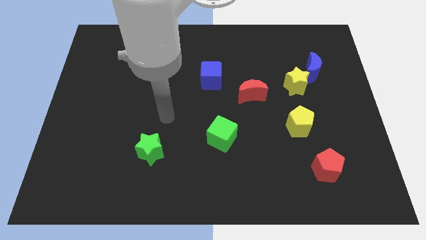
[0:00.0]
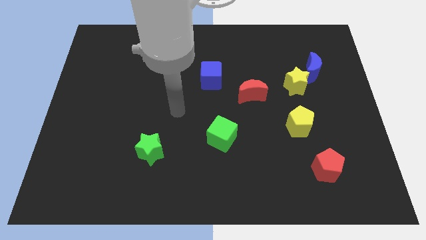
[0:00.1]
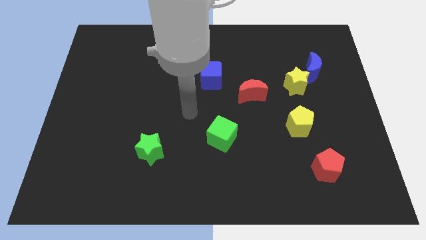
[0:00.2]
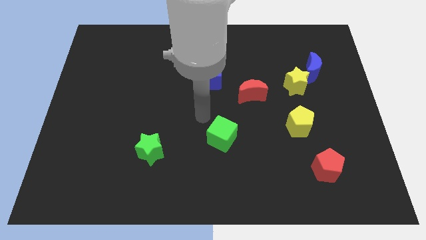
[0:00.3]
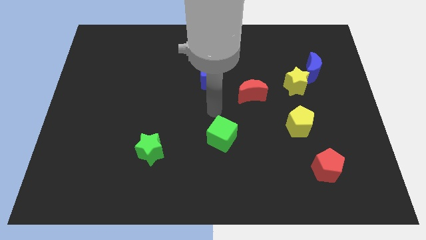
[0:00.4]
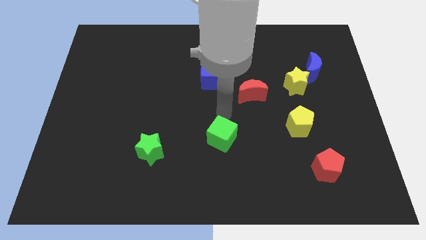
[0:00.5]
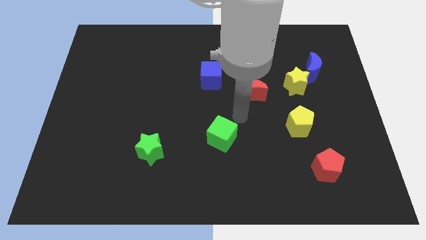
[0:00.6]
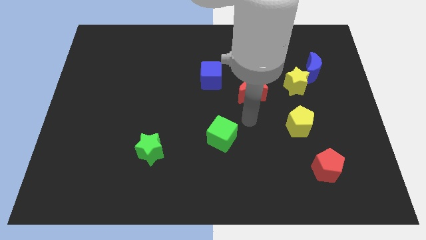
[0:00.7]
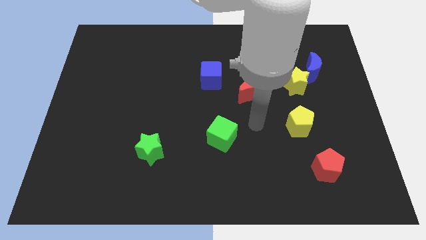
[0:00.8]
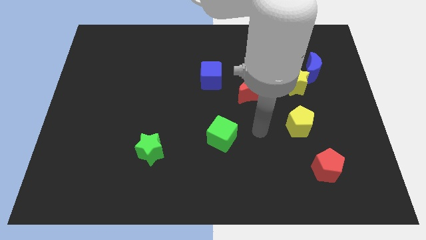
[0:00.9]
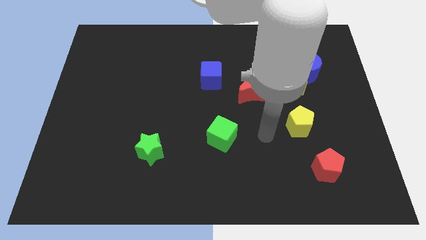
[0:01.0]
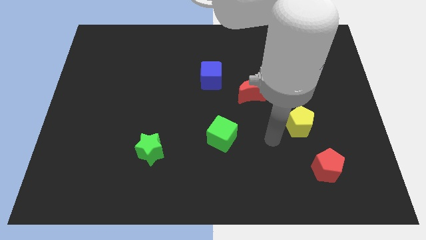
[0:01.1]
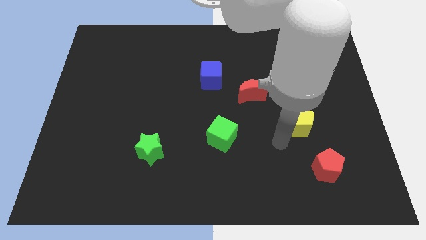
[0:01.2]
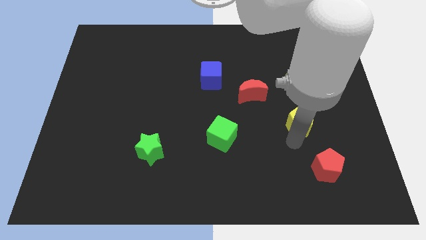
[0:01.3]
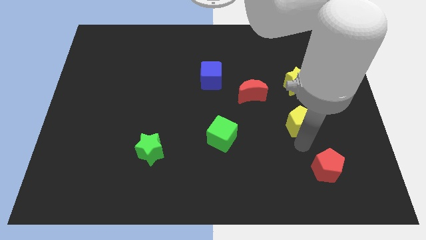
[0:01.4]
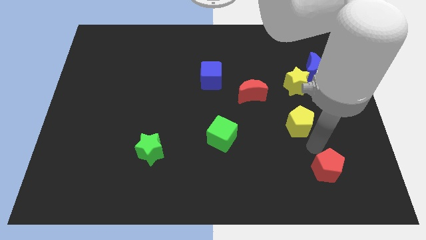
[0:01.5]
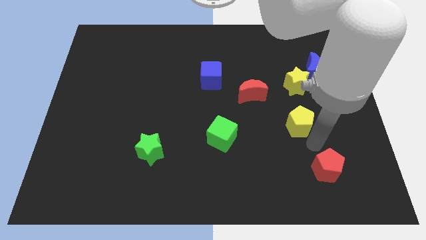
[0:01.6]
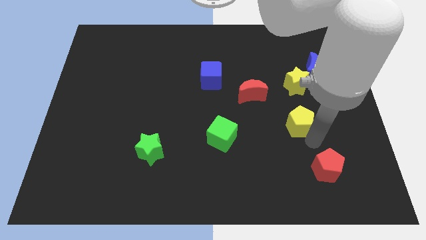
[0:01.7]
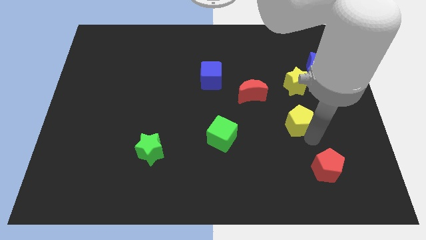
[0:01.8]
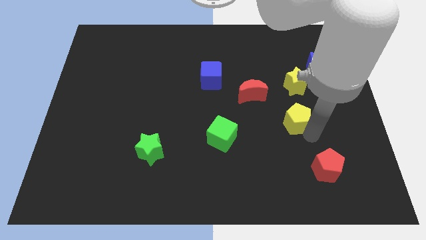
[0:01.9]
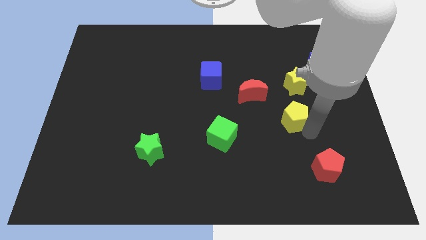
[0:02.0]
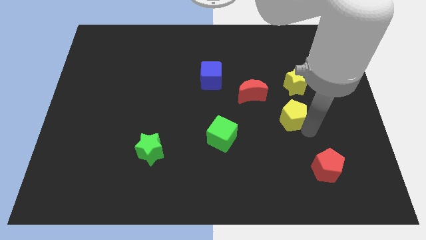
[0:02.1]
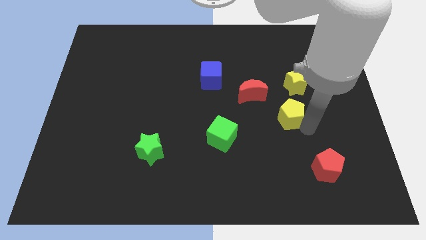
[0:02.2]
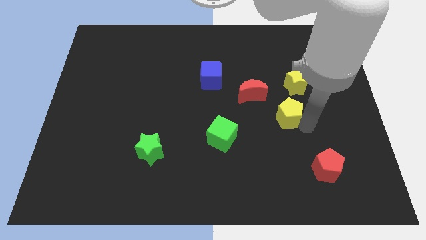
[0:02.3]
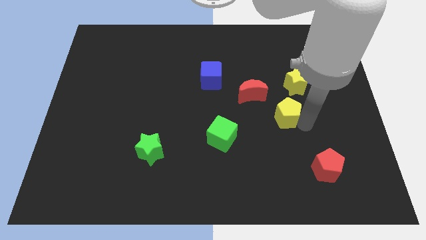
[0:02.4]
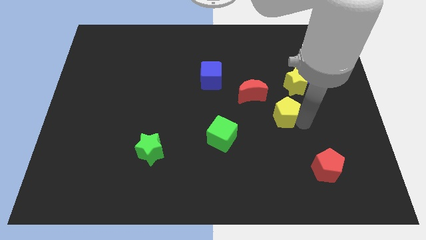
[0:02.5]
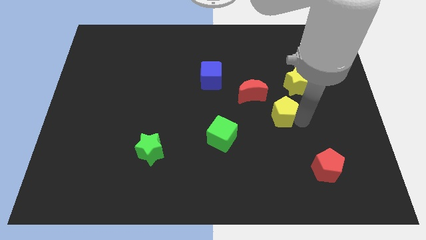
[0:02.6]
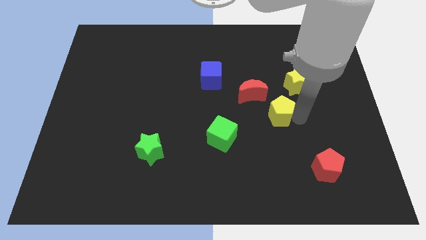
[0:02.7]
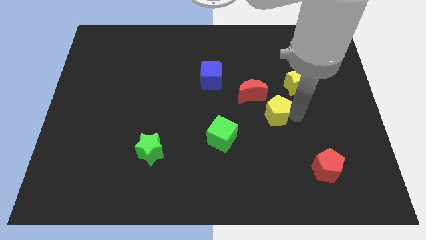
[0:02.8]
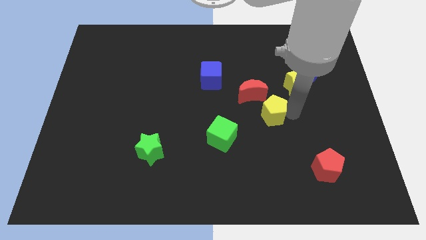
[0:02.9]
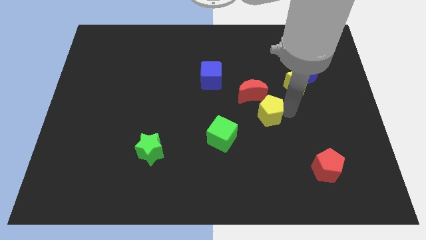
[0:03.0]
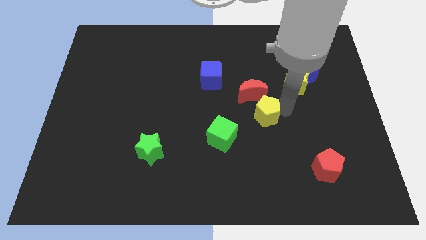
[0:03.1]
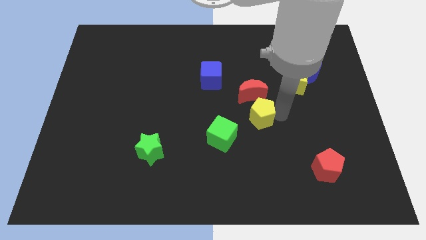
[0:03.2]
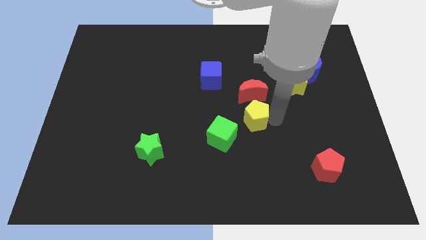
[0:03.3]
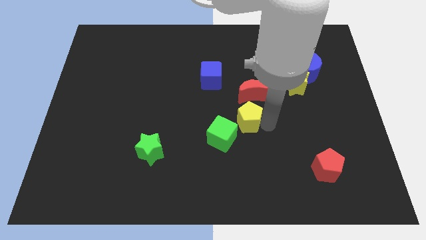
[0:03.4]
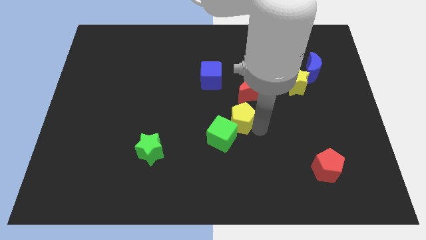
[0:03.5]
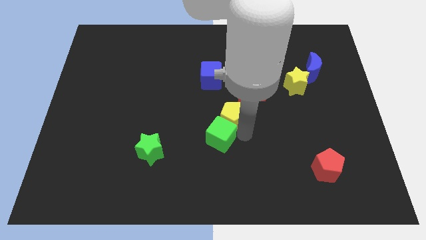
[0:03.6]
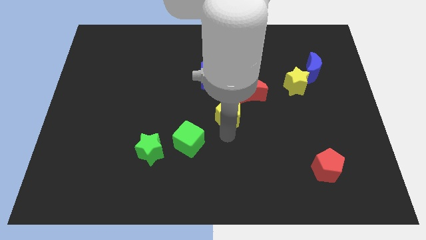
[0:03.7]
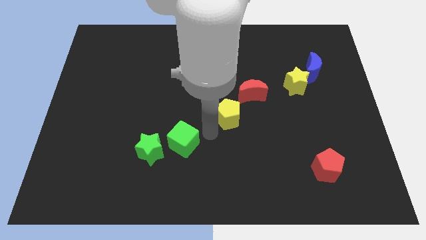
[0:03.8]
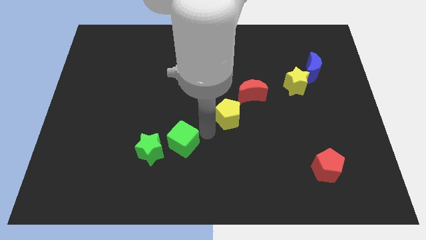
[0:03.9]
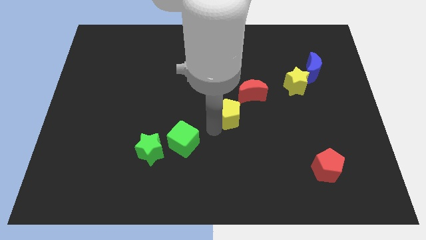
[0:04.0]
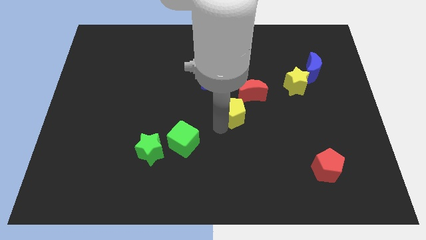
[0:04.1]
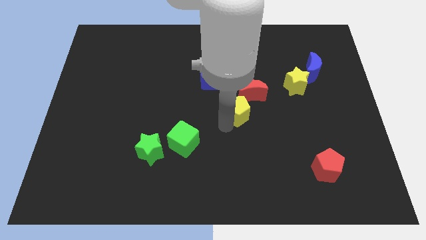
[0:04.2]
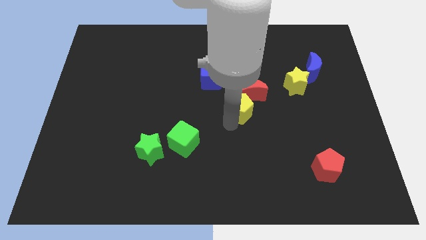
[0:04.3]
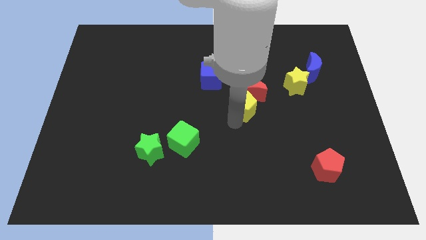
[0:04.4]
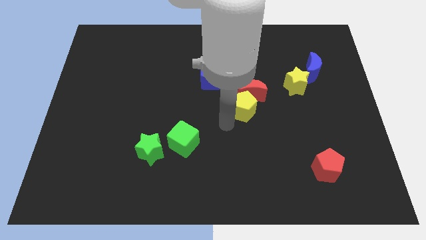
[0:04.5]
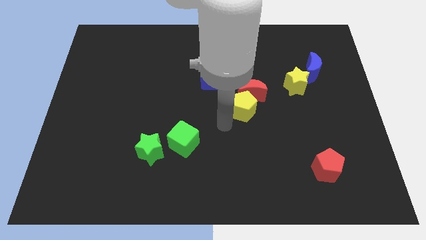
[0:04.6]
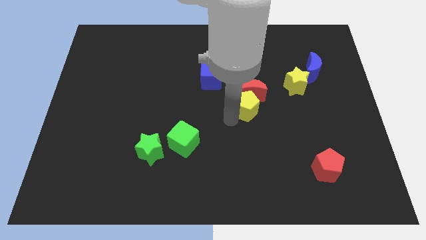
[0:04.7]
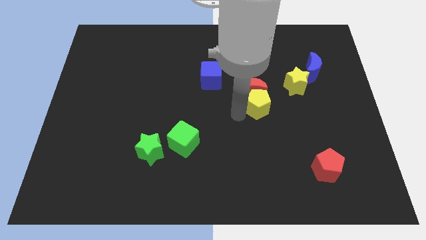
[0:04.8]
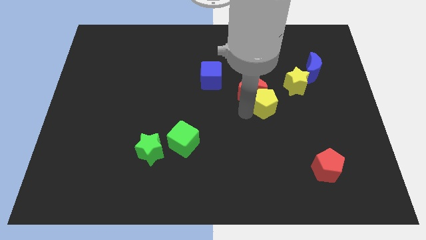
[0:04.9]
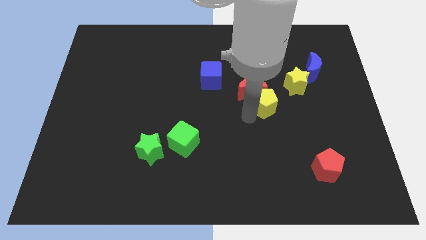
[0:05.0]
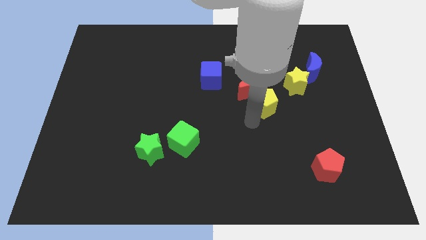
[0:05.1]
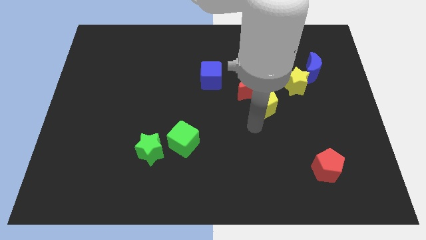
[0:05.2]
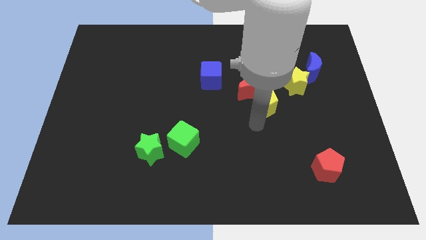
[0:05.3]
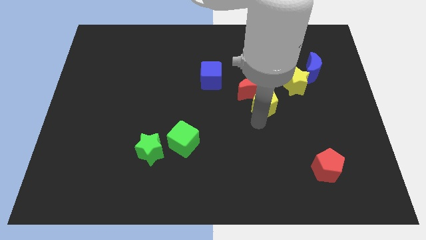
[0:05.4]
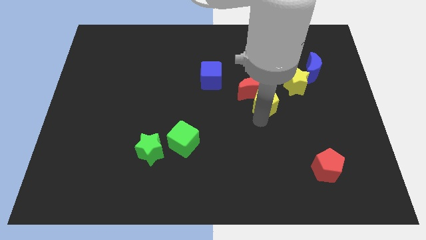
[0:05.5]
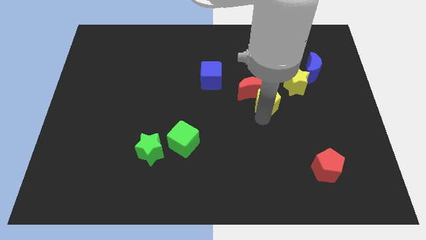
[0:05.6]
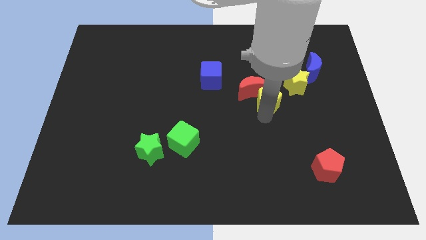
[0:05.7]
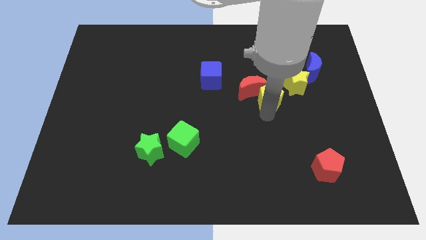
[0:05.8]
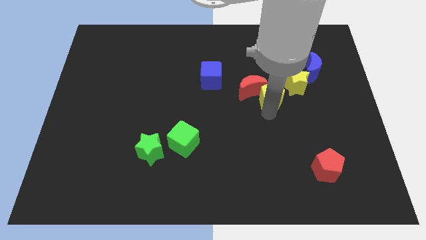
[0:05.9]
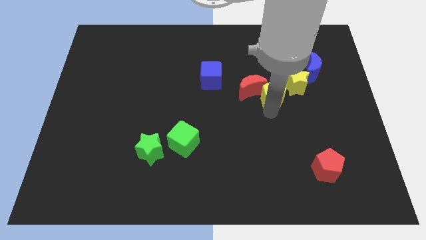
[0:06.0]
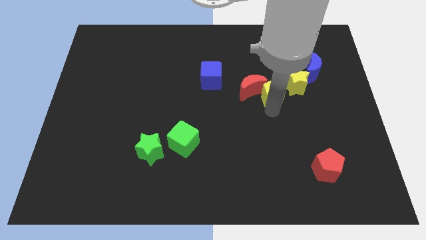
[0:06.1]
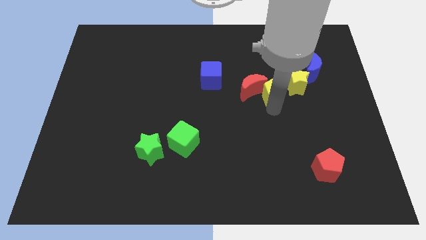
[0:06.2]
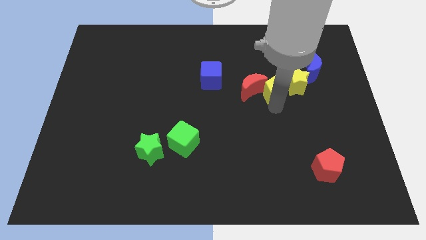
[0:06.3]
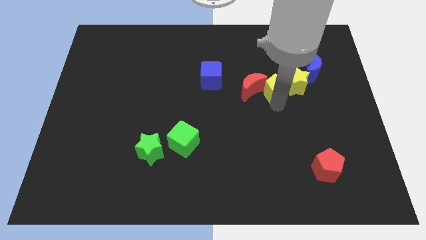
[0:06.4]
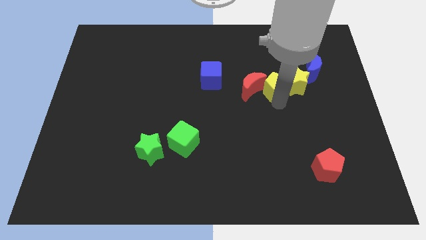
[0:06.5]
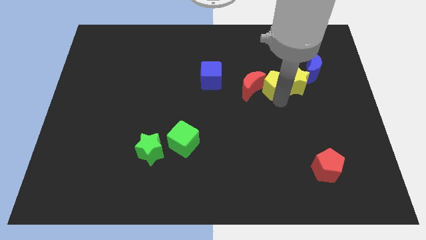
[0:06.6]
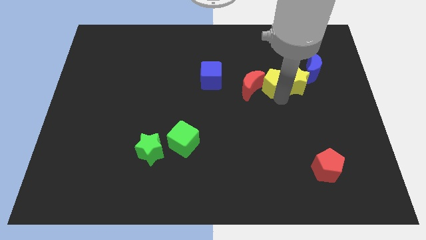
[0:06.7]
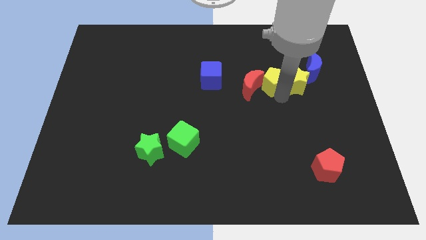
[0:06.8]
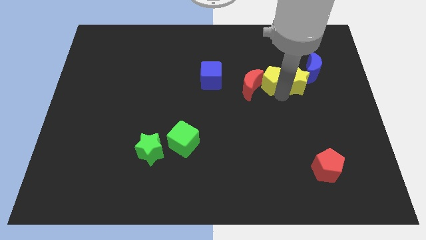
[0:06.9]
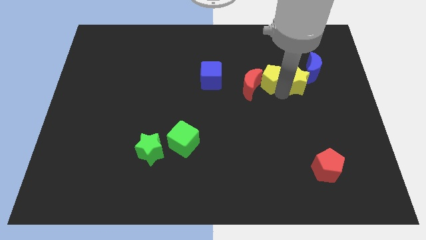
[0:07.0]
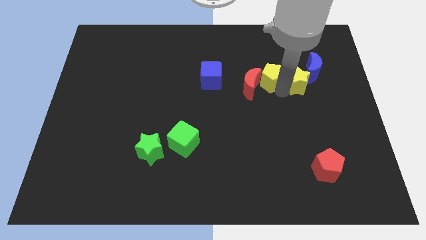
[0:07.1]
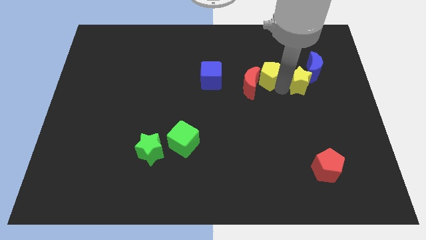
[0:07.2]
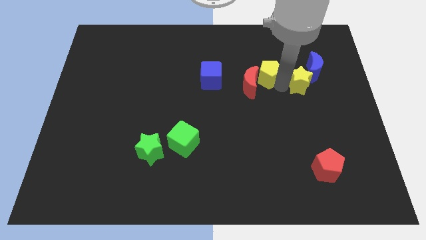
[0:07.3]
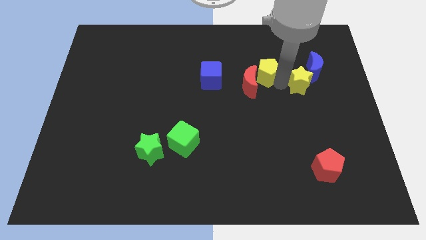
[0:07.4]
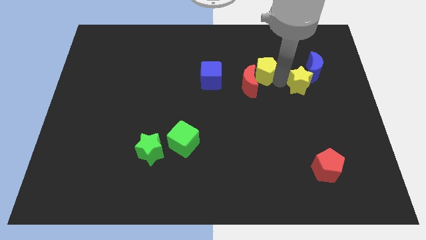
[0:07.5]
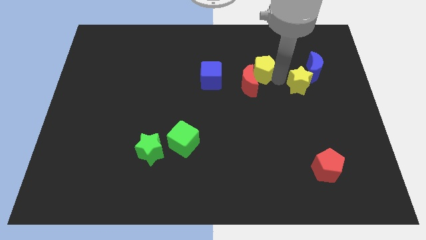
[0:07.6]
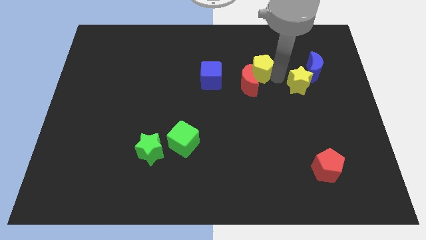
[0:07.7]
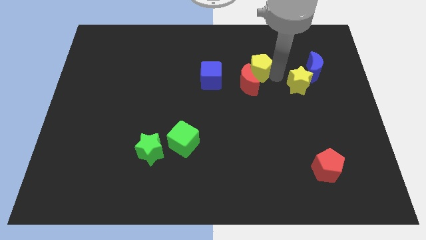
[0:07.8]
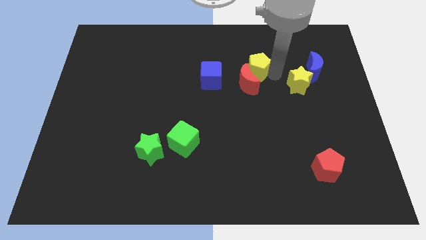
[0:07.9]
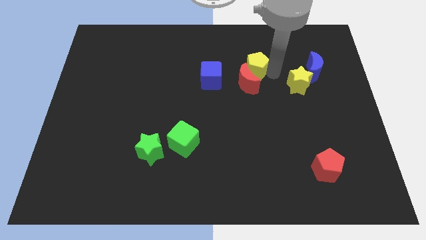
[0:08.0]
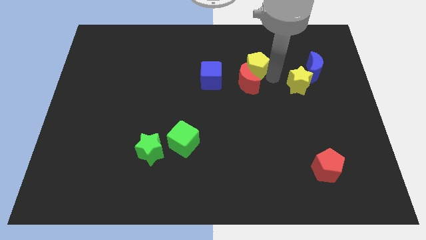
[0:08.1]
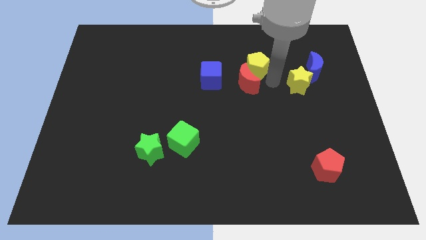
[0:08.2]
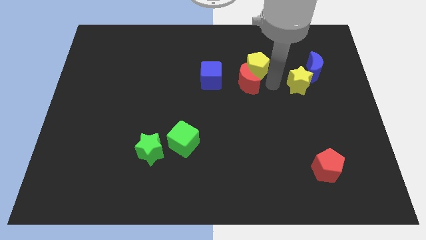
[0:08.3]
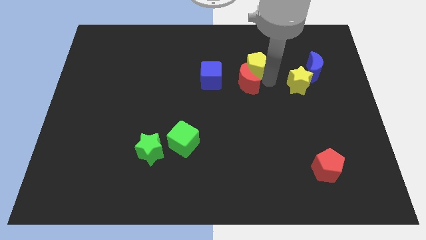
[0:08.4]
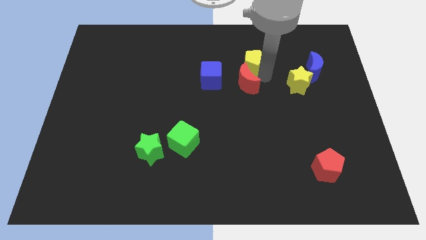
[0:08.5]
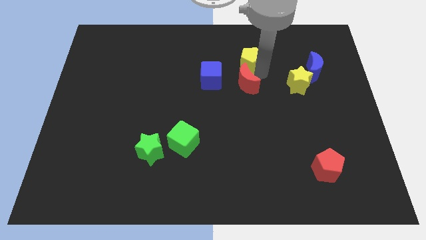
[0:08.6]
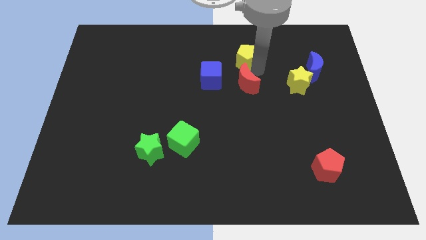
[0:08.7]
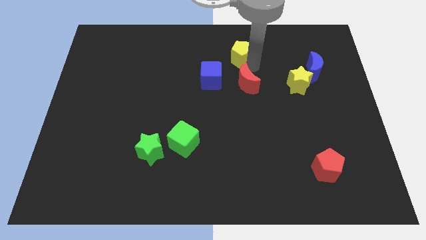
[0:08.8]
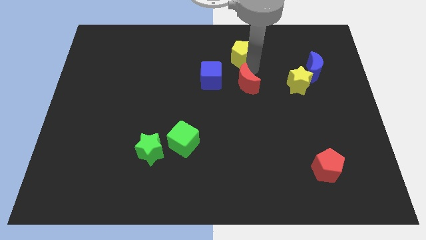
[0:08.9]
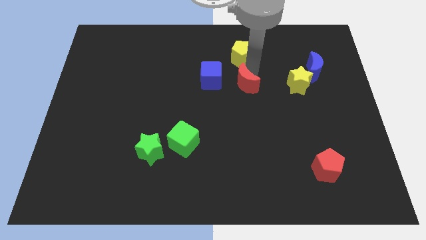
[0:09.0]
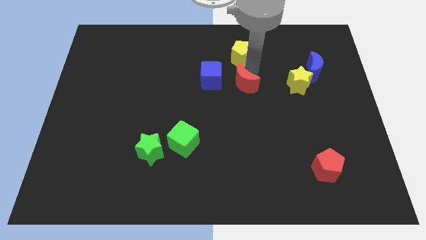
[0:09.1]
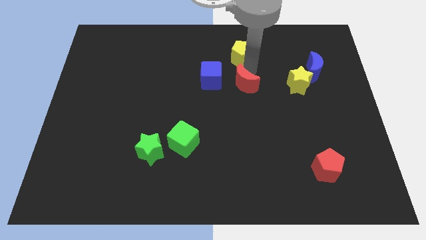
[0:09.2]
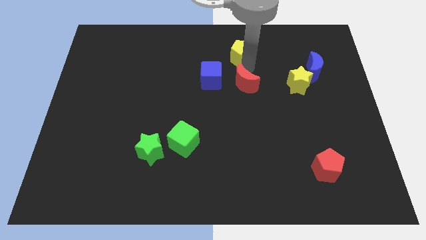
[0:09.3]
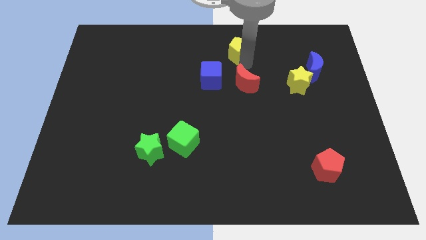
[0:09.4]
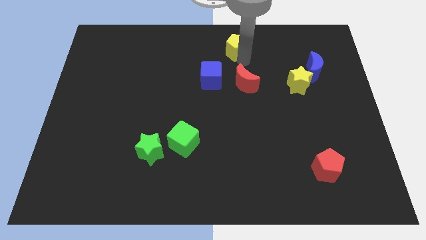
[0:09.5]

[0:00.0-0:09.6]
slide the yellow pentagon to the top
